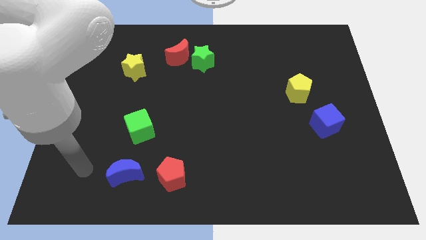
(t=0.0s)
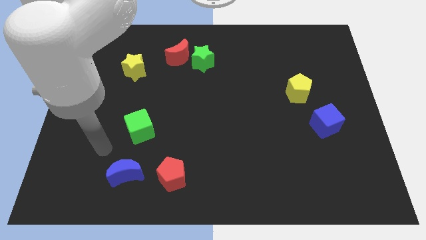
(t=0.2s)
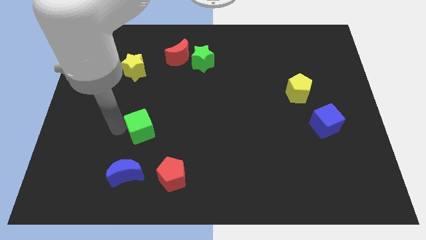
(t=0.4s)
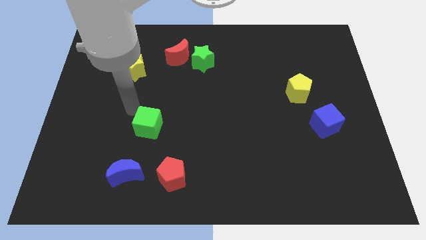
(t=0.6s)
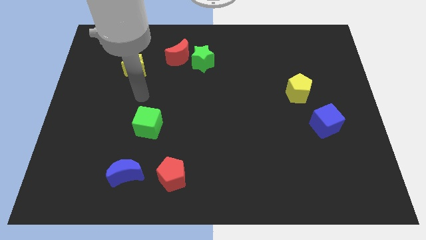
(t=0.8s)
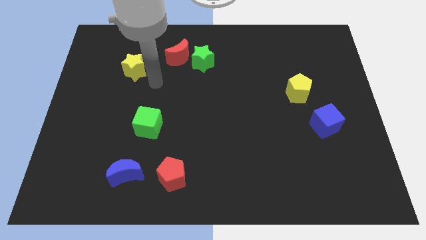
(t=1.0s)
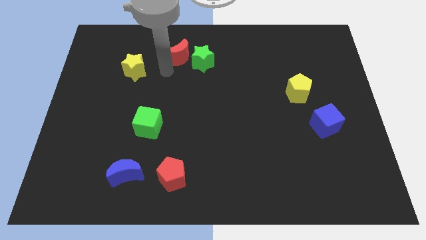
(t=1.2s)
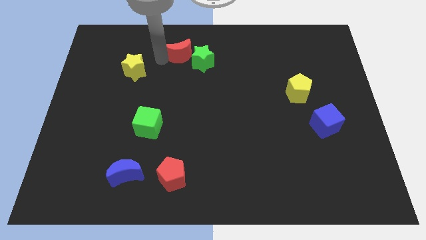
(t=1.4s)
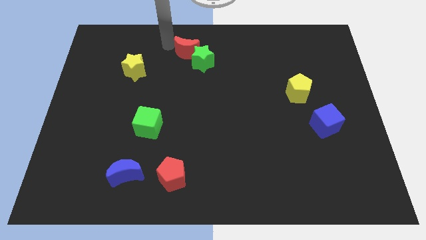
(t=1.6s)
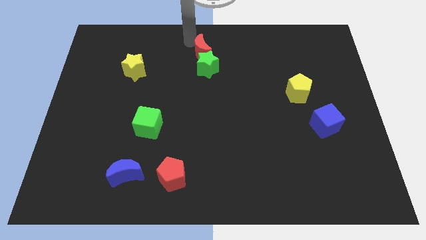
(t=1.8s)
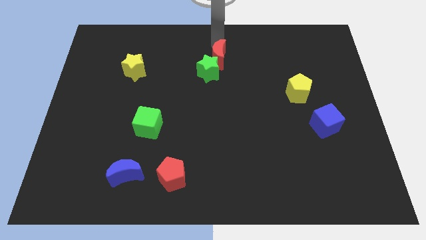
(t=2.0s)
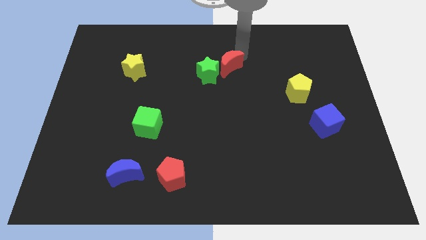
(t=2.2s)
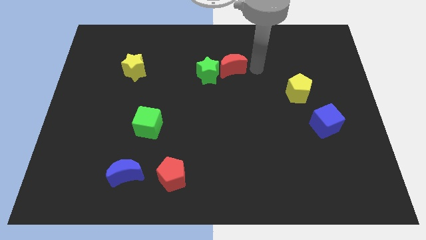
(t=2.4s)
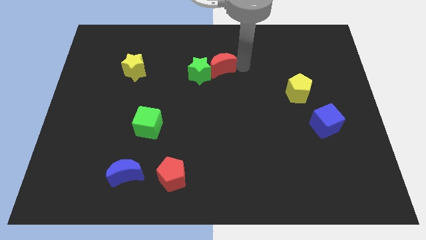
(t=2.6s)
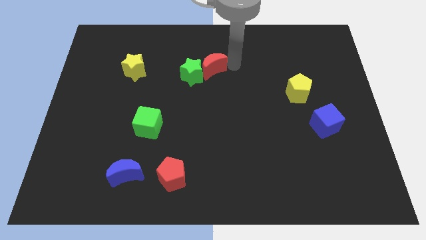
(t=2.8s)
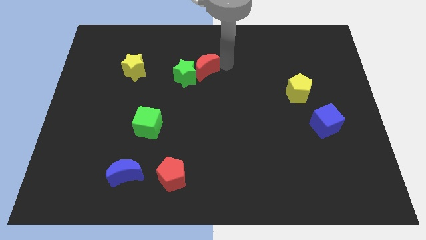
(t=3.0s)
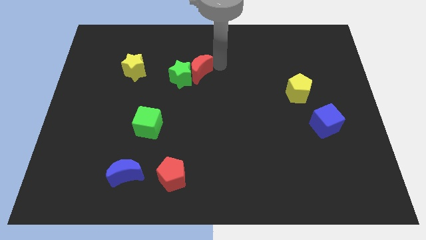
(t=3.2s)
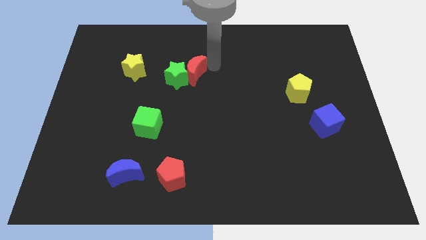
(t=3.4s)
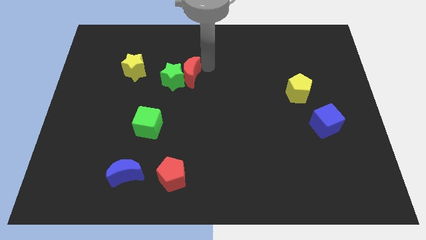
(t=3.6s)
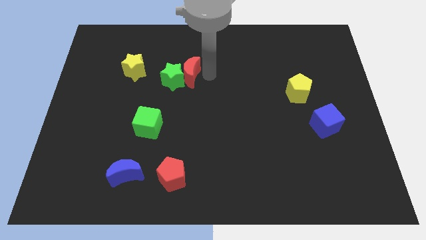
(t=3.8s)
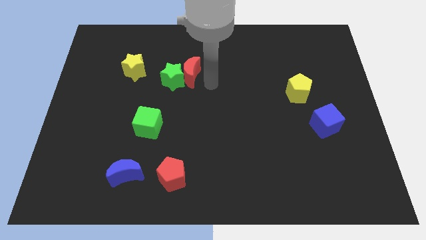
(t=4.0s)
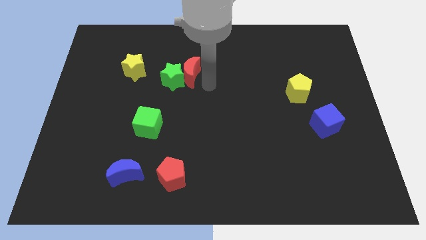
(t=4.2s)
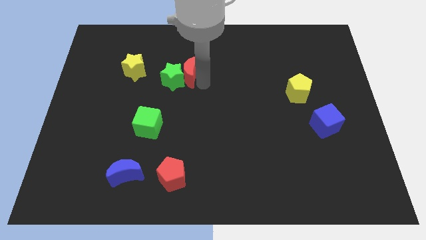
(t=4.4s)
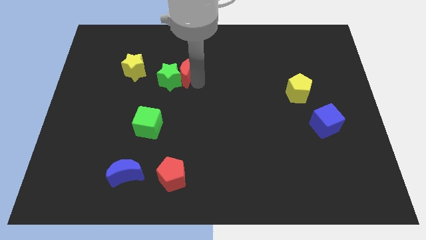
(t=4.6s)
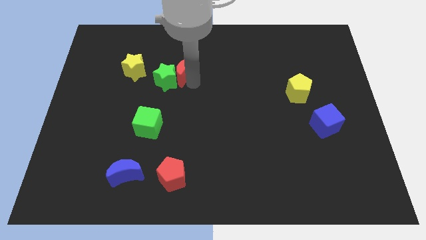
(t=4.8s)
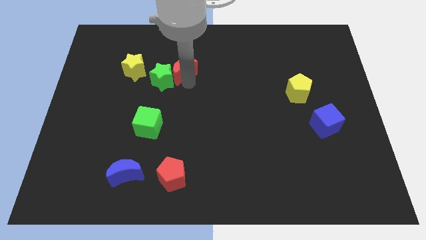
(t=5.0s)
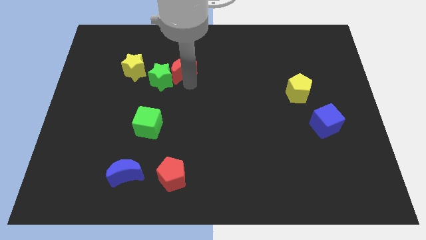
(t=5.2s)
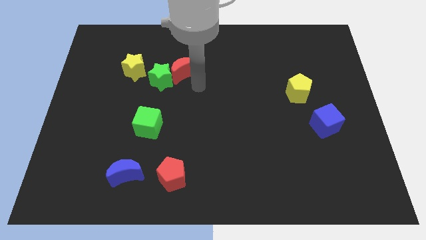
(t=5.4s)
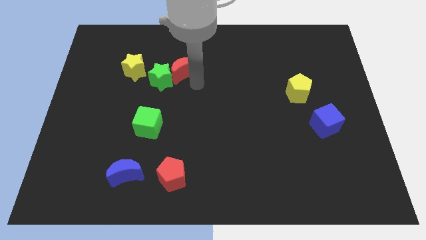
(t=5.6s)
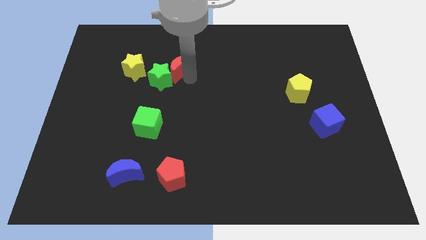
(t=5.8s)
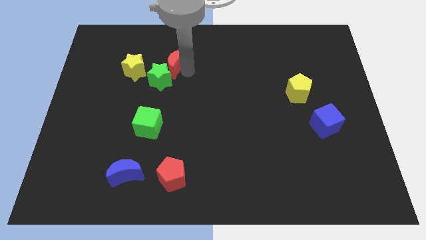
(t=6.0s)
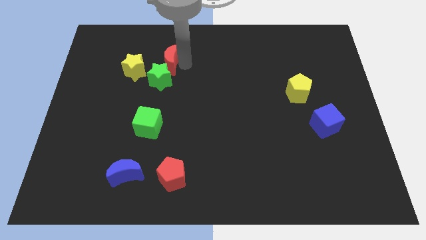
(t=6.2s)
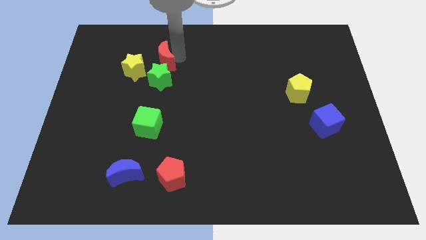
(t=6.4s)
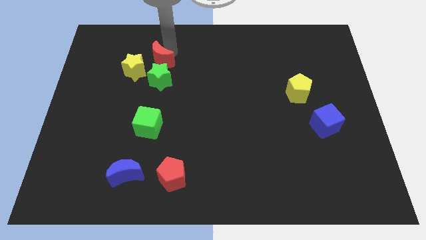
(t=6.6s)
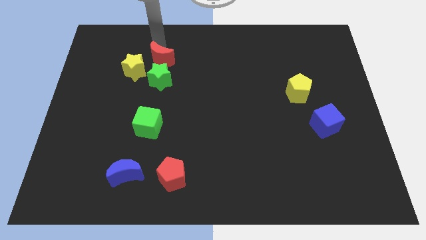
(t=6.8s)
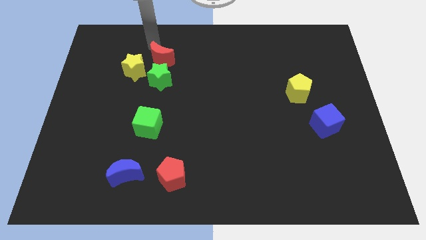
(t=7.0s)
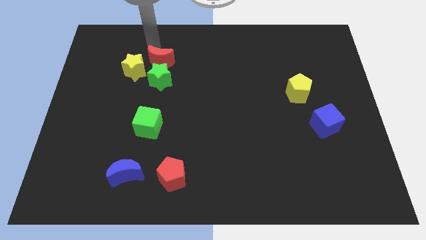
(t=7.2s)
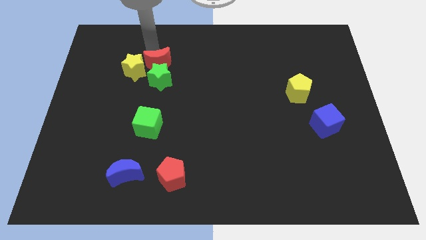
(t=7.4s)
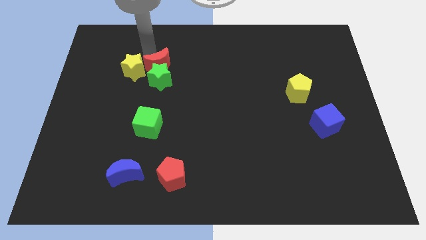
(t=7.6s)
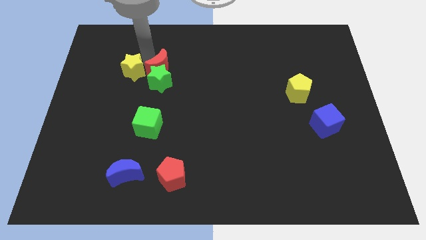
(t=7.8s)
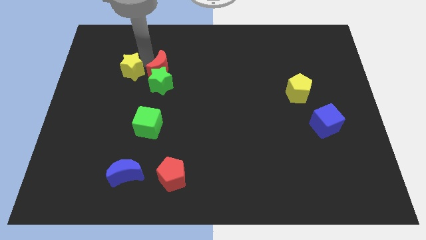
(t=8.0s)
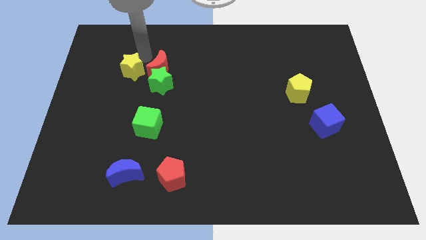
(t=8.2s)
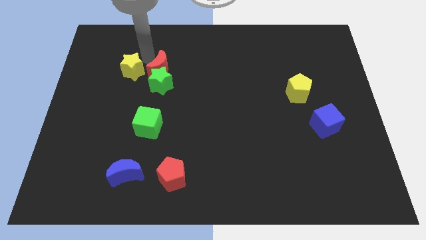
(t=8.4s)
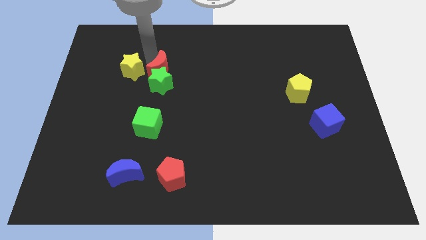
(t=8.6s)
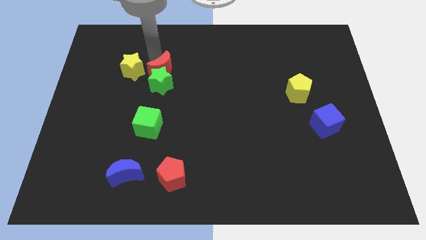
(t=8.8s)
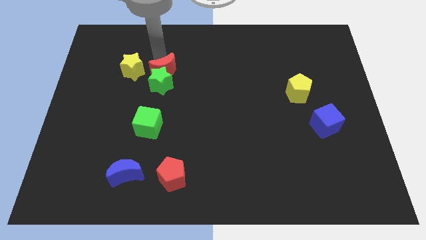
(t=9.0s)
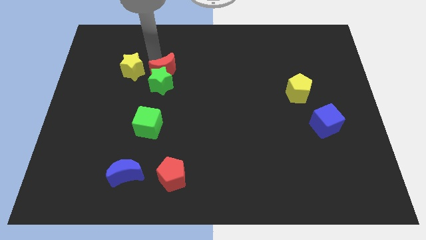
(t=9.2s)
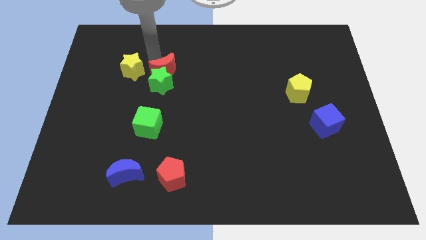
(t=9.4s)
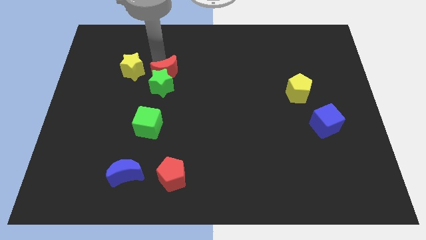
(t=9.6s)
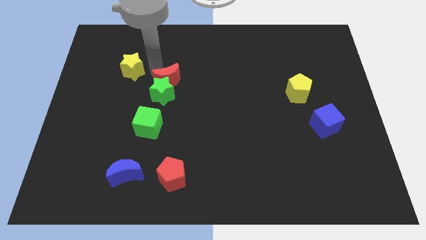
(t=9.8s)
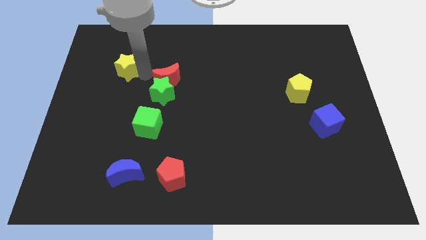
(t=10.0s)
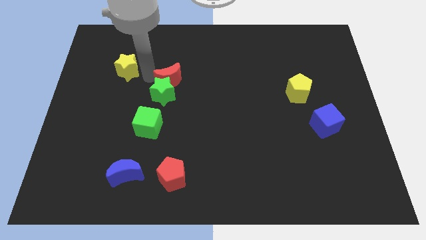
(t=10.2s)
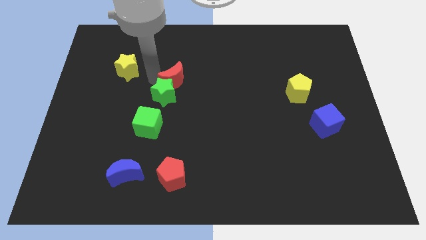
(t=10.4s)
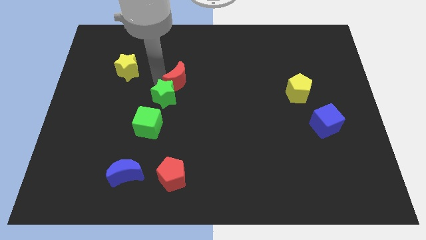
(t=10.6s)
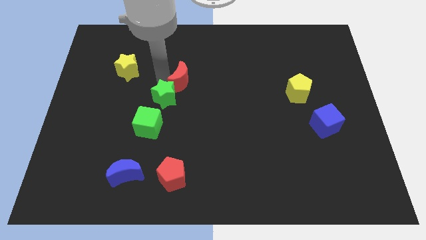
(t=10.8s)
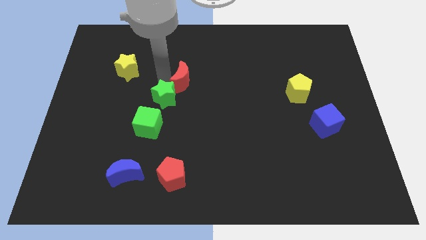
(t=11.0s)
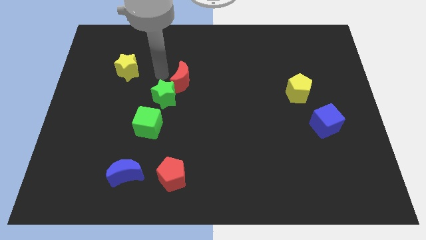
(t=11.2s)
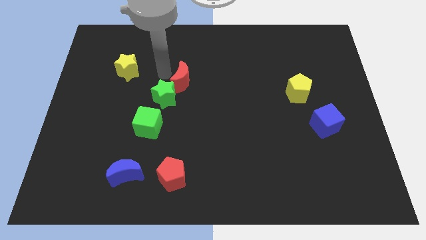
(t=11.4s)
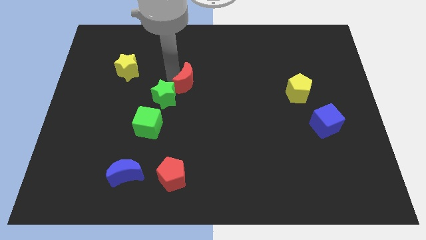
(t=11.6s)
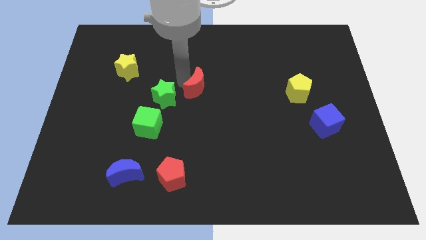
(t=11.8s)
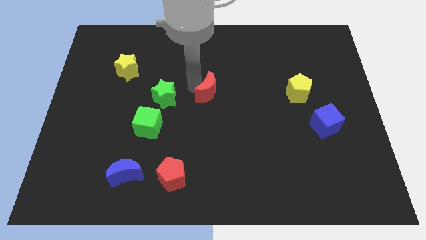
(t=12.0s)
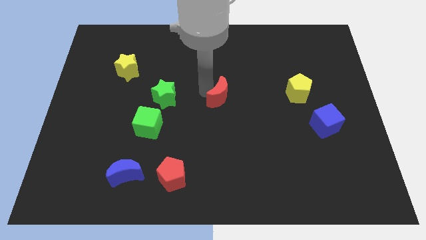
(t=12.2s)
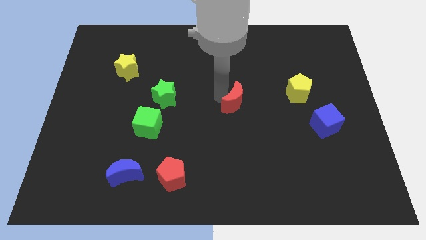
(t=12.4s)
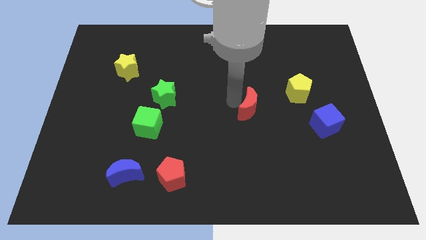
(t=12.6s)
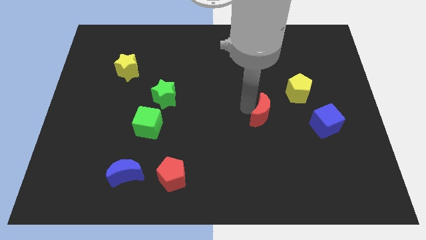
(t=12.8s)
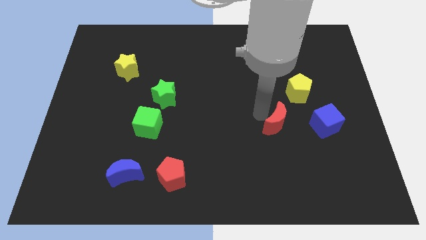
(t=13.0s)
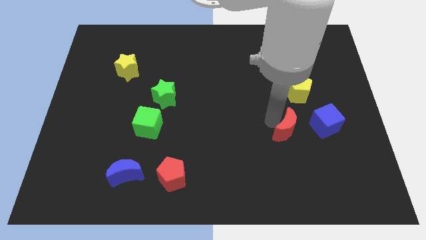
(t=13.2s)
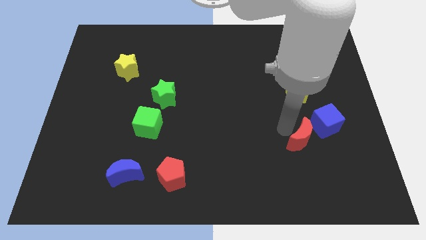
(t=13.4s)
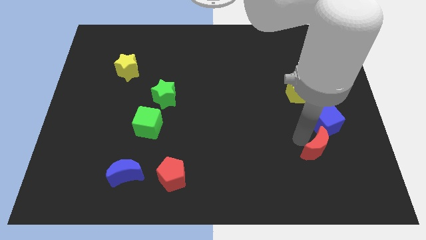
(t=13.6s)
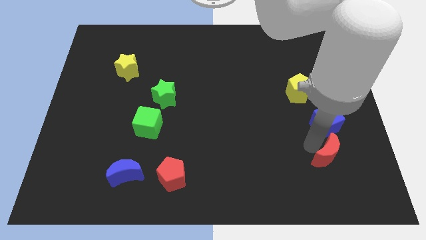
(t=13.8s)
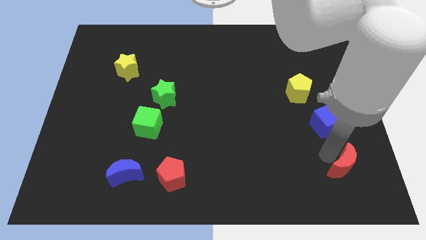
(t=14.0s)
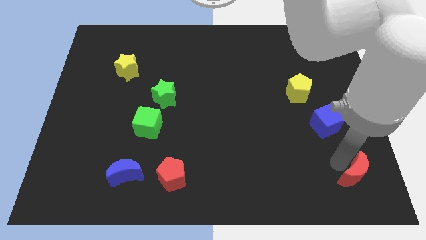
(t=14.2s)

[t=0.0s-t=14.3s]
slide the red moon to the lower right corner
